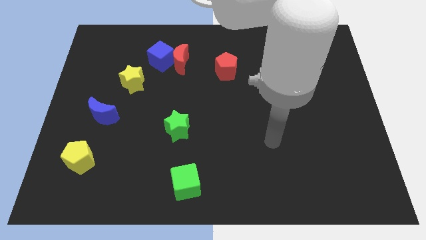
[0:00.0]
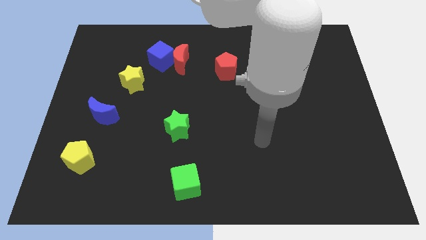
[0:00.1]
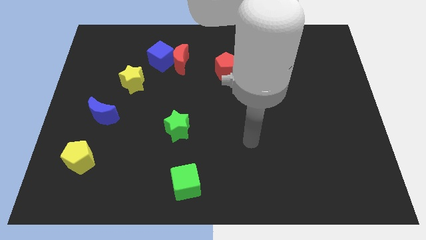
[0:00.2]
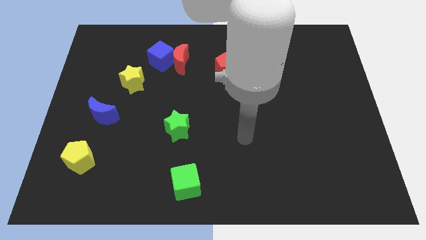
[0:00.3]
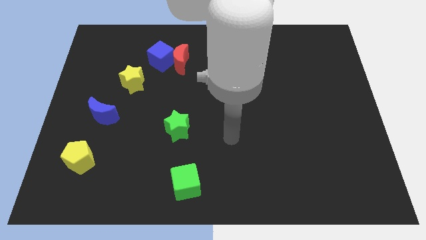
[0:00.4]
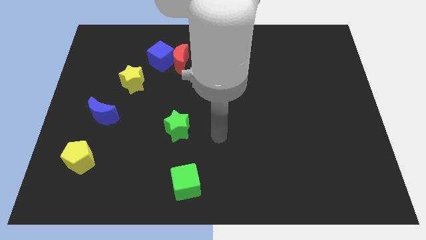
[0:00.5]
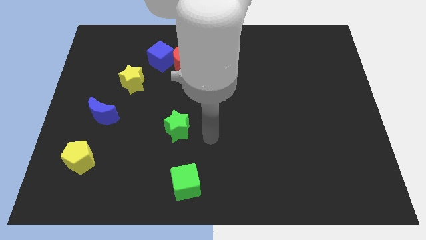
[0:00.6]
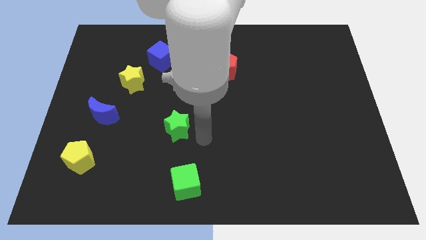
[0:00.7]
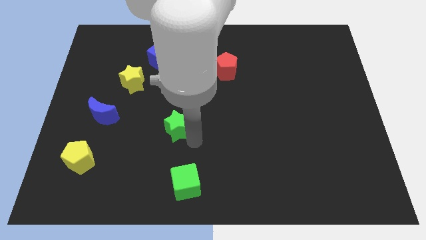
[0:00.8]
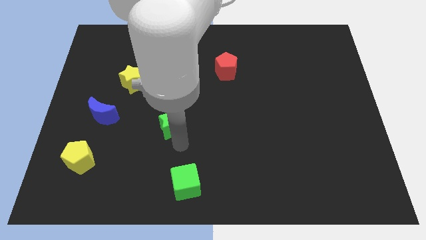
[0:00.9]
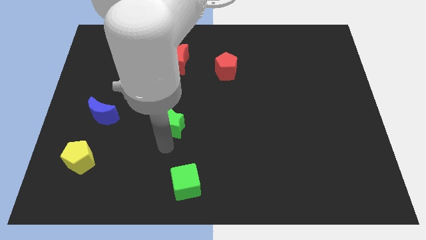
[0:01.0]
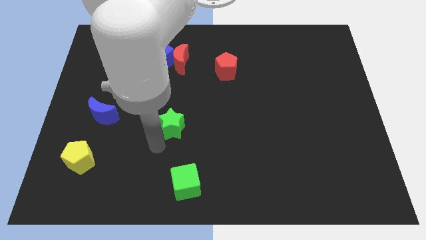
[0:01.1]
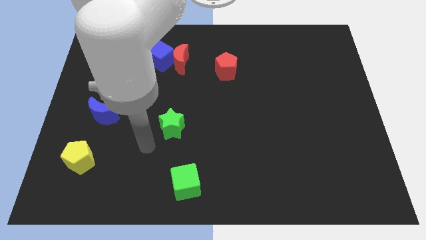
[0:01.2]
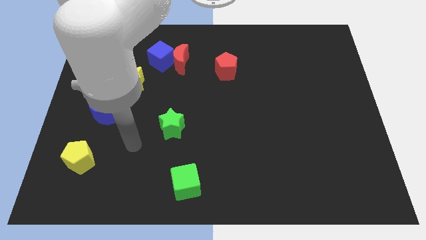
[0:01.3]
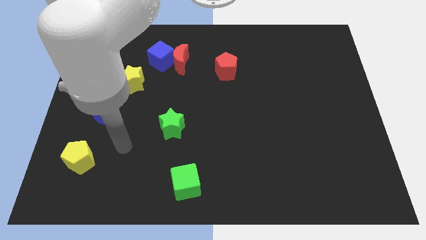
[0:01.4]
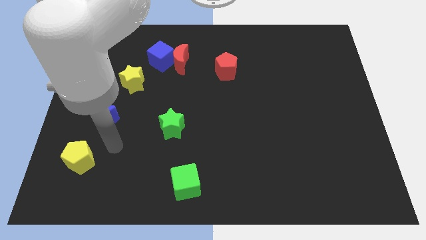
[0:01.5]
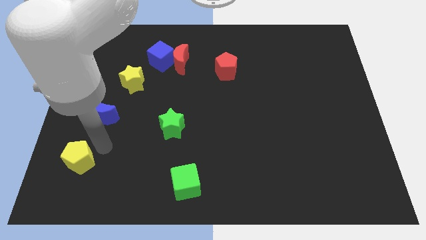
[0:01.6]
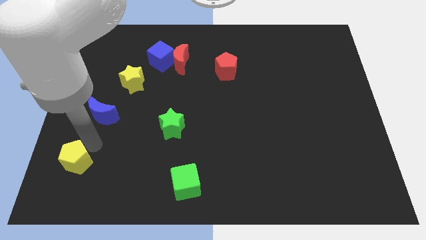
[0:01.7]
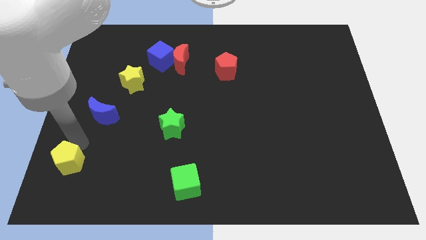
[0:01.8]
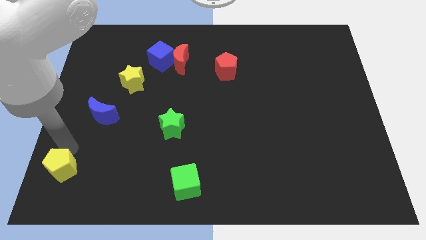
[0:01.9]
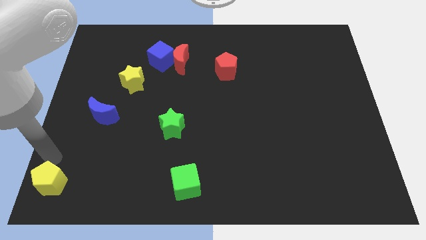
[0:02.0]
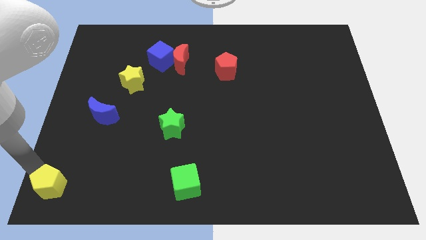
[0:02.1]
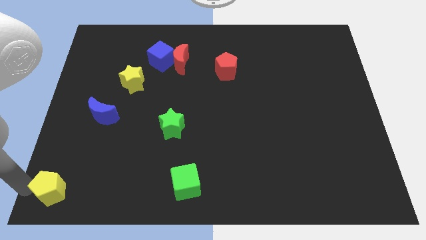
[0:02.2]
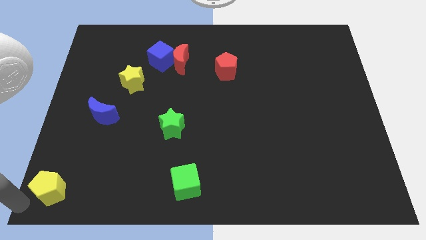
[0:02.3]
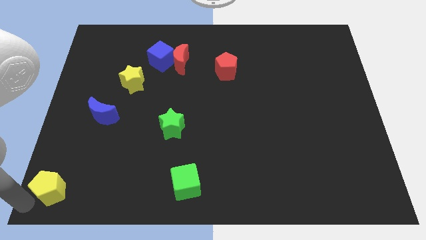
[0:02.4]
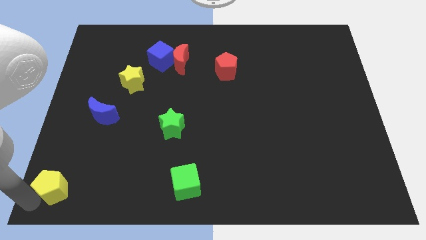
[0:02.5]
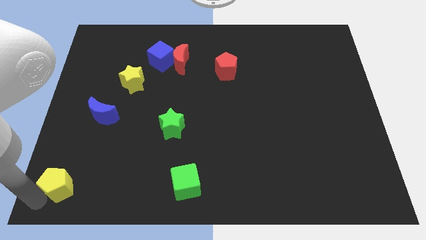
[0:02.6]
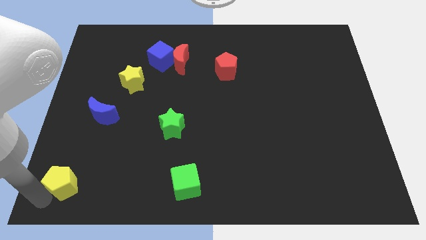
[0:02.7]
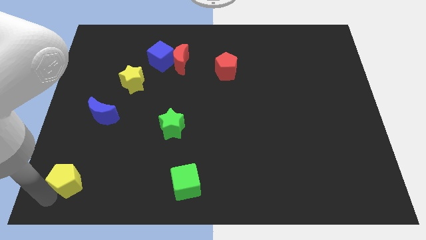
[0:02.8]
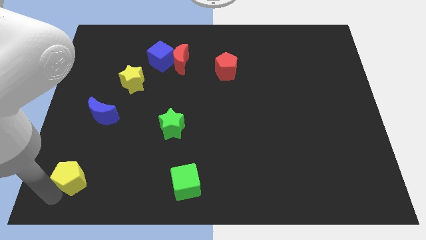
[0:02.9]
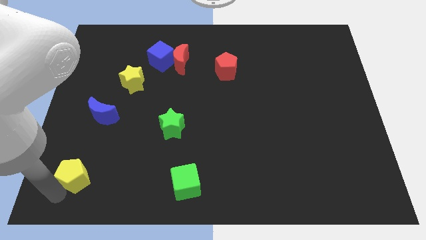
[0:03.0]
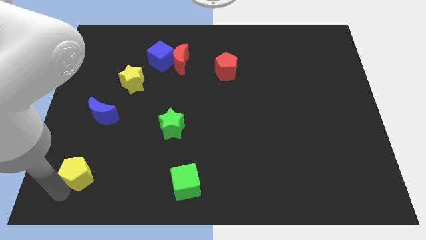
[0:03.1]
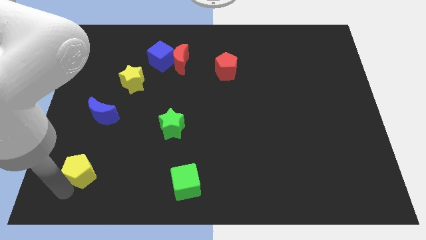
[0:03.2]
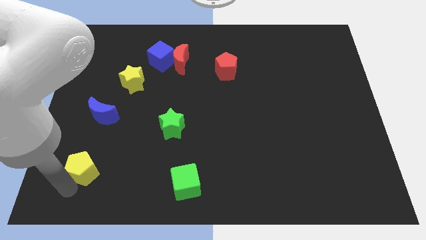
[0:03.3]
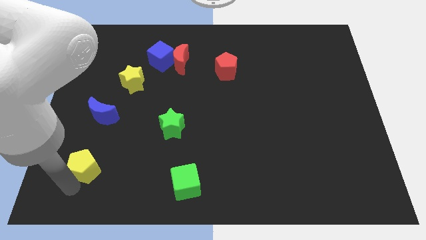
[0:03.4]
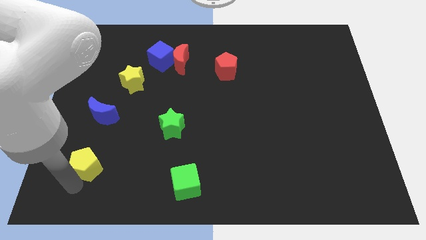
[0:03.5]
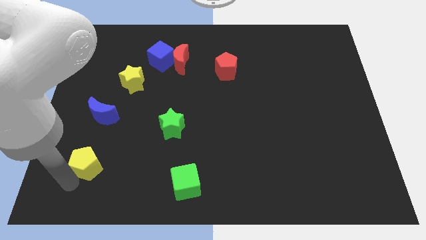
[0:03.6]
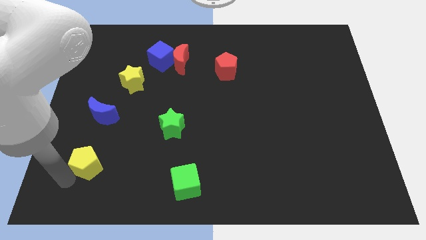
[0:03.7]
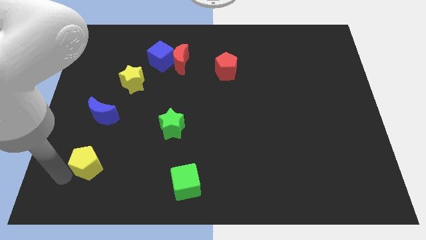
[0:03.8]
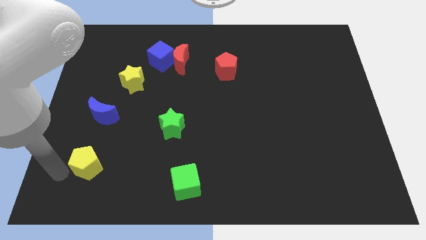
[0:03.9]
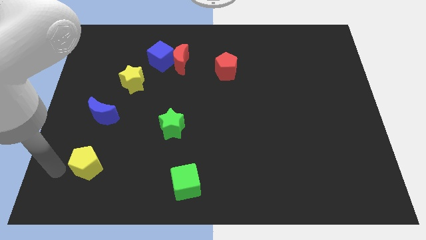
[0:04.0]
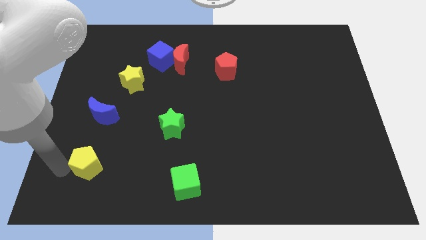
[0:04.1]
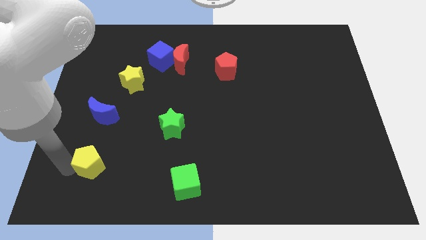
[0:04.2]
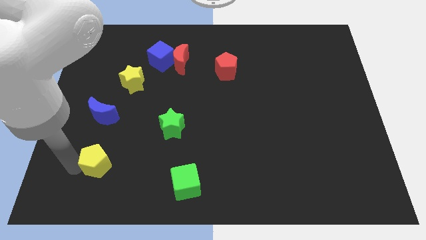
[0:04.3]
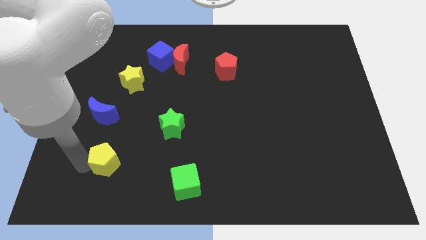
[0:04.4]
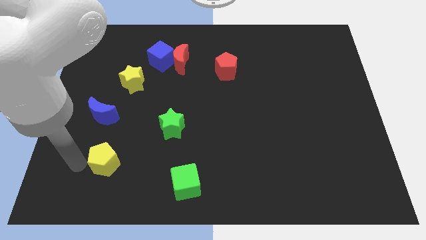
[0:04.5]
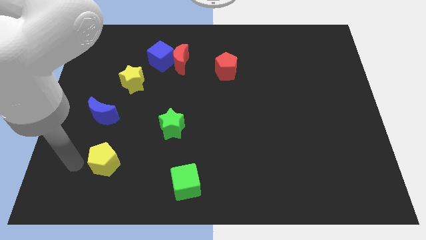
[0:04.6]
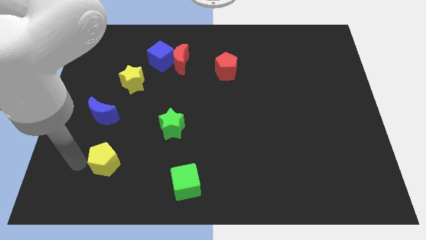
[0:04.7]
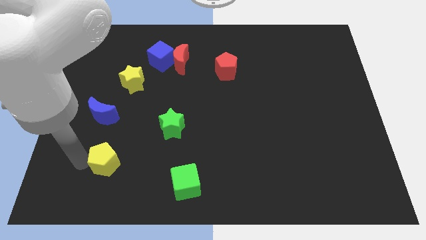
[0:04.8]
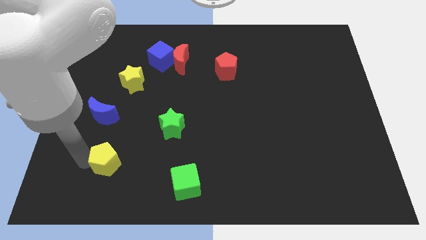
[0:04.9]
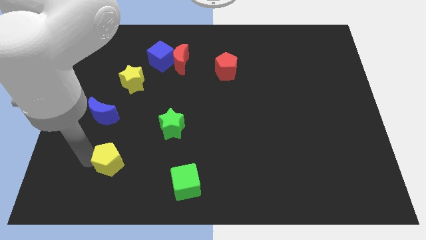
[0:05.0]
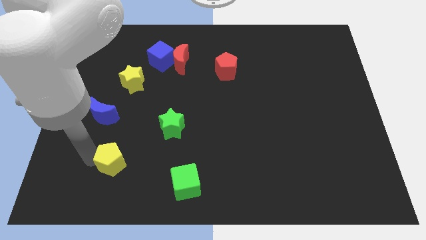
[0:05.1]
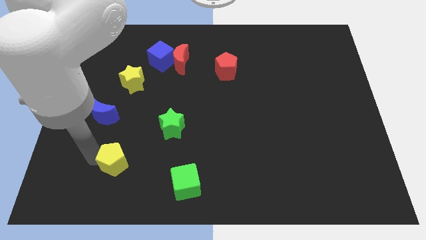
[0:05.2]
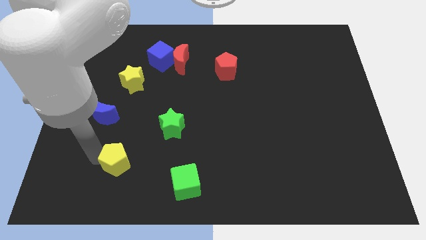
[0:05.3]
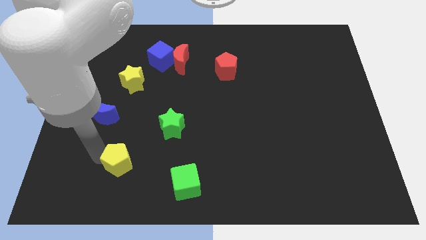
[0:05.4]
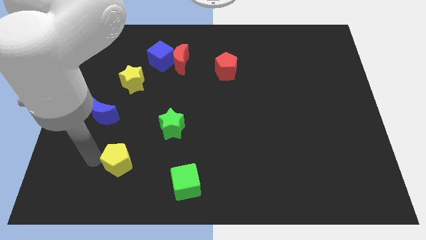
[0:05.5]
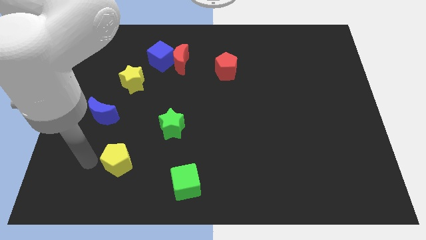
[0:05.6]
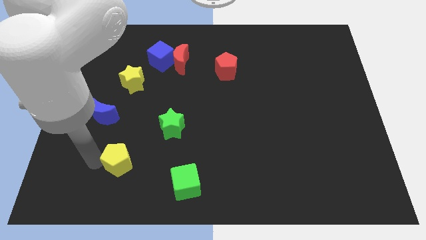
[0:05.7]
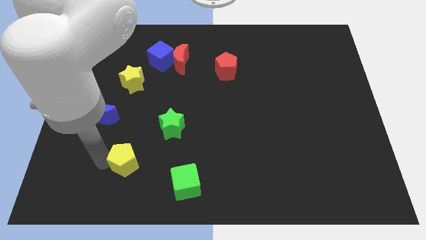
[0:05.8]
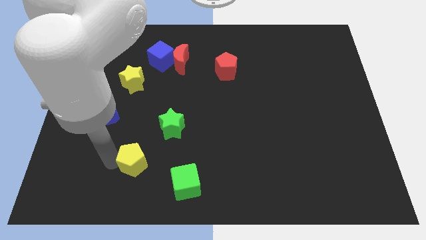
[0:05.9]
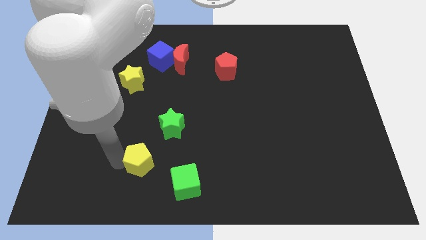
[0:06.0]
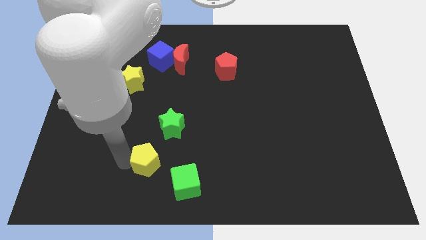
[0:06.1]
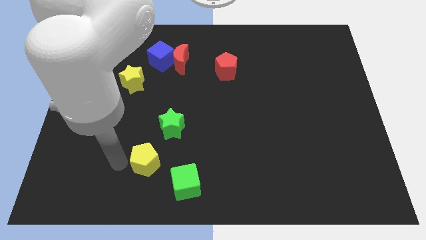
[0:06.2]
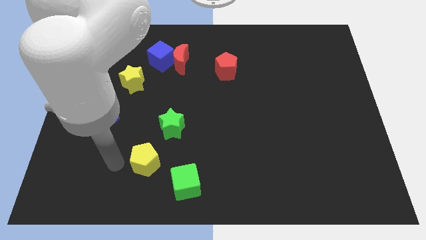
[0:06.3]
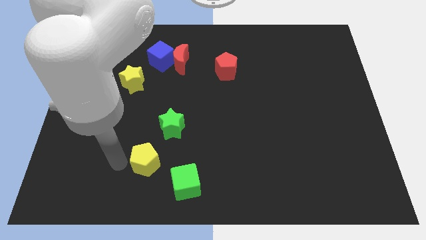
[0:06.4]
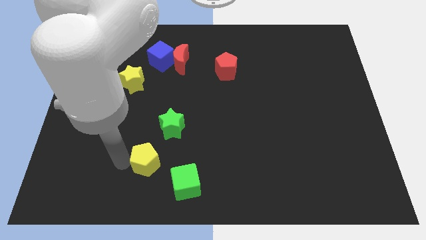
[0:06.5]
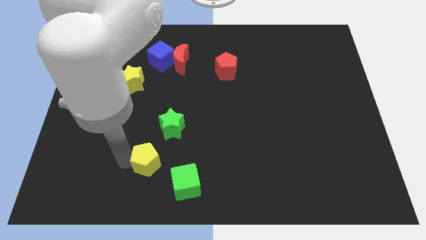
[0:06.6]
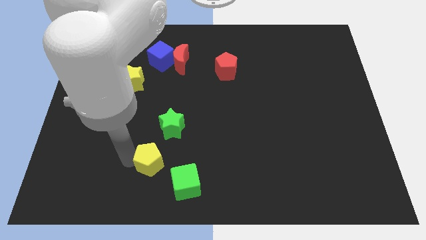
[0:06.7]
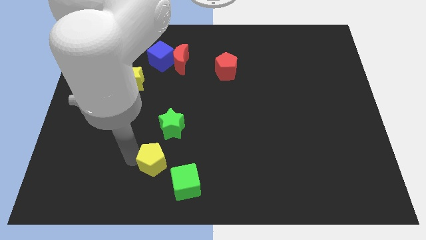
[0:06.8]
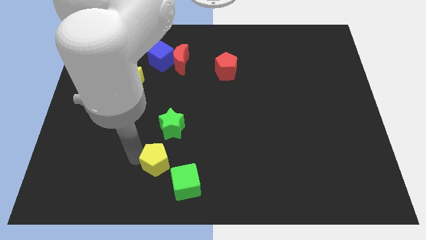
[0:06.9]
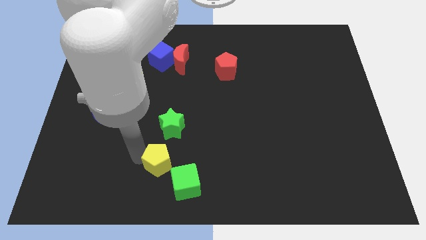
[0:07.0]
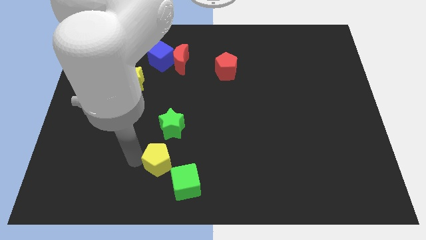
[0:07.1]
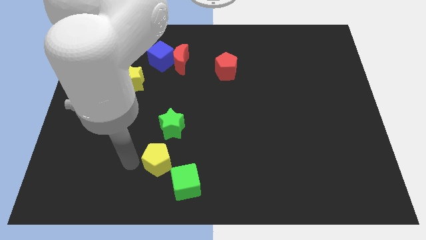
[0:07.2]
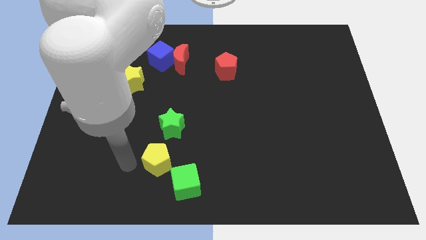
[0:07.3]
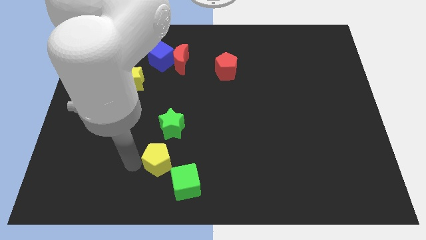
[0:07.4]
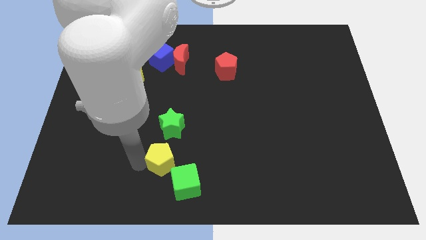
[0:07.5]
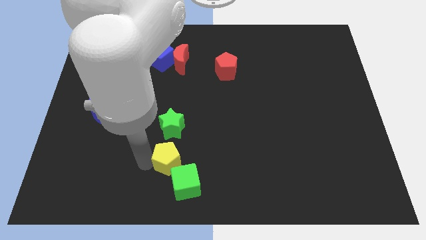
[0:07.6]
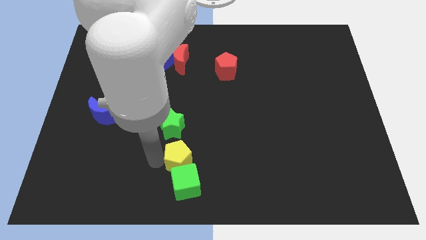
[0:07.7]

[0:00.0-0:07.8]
slide the yellow pentagon to the right

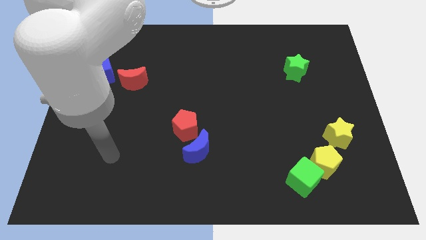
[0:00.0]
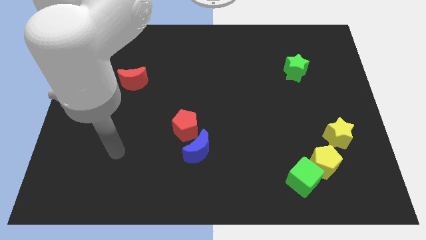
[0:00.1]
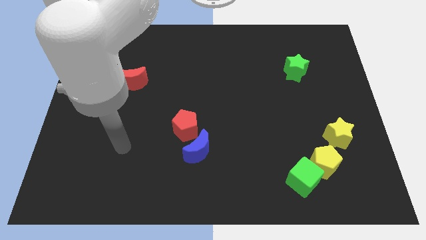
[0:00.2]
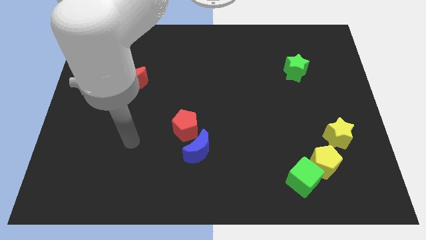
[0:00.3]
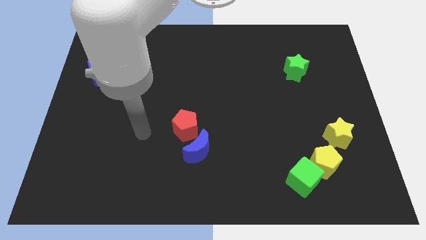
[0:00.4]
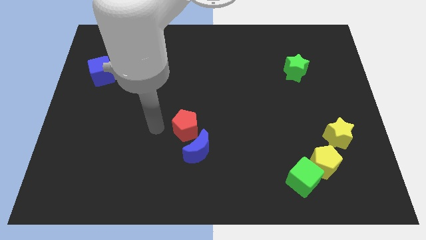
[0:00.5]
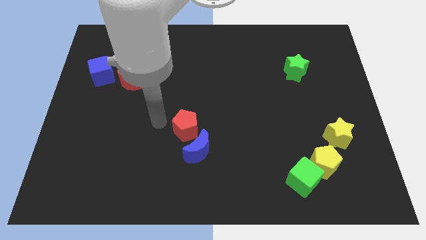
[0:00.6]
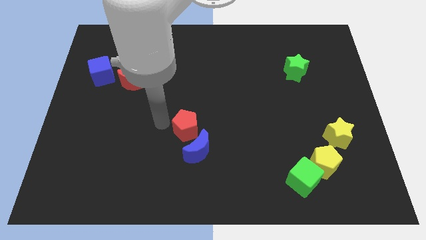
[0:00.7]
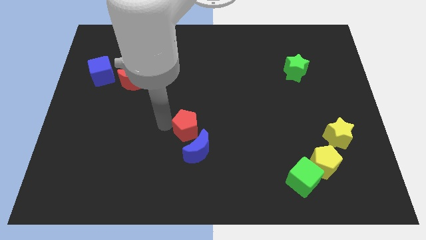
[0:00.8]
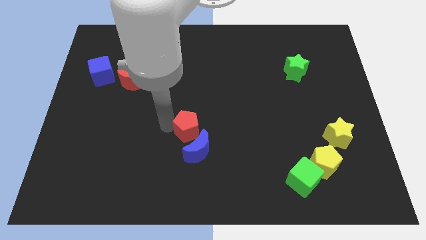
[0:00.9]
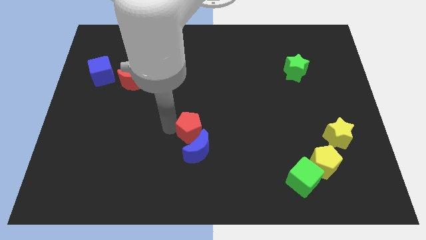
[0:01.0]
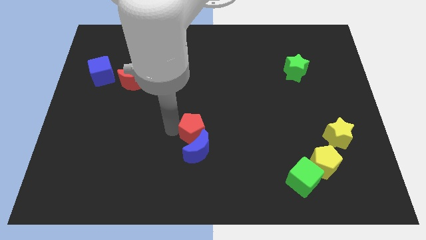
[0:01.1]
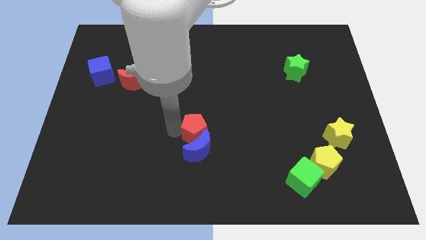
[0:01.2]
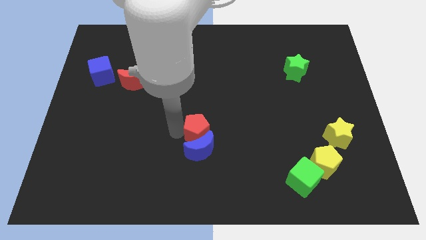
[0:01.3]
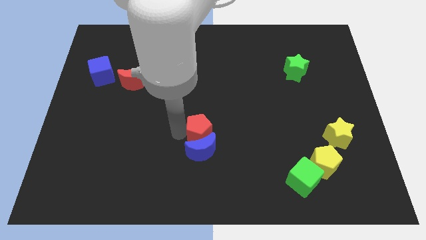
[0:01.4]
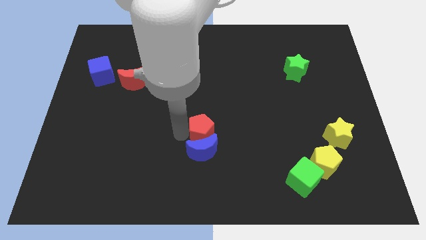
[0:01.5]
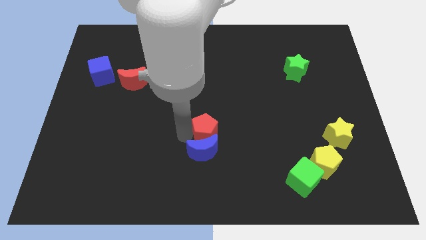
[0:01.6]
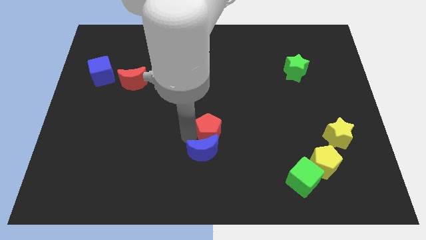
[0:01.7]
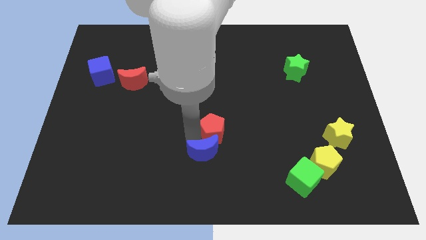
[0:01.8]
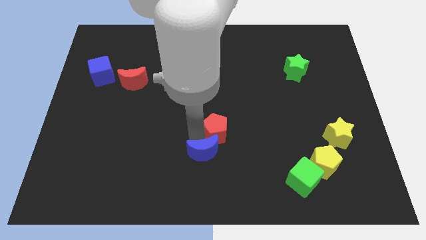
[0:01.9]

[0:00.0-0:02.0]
push the red pentagon right a bit
